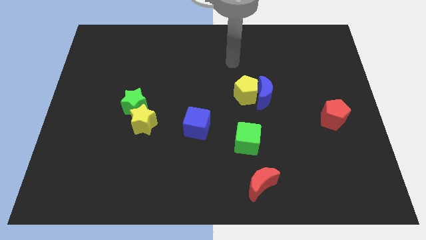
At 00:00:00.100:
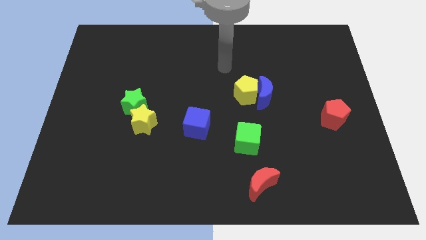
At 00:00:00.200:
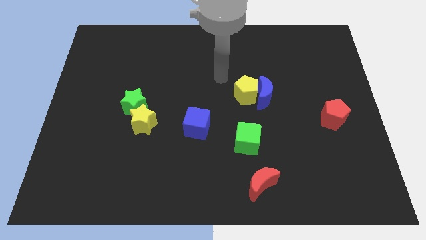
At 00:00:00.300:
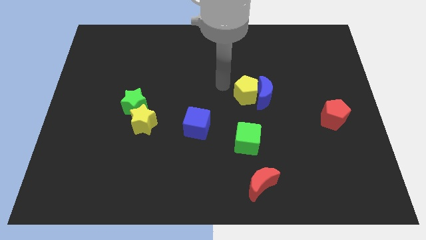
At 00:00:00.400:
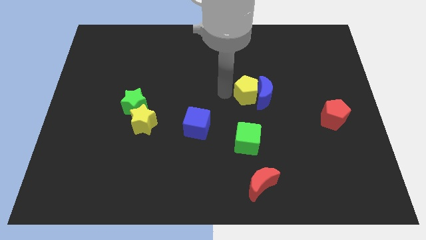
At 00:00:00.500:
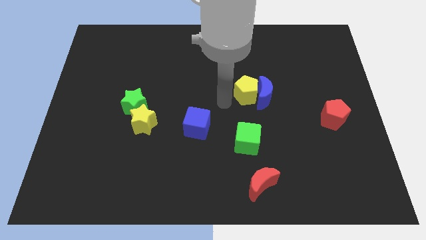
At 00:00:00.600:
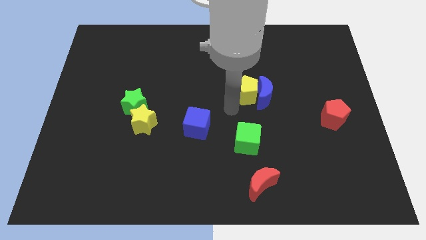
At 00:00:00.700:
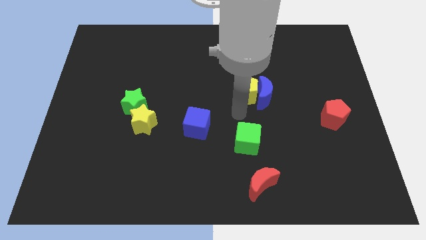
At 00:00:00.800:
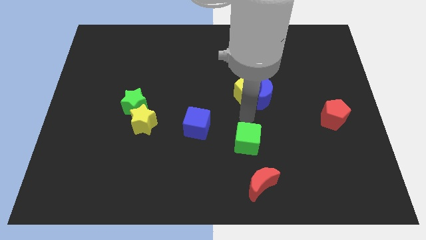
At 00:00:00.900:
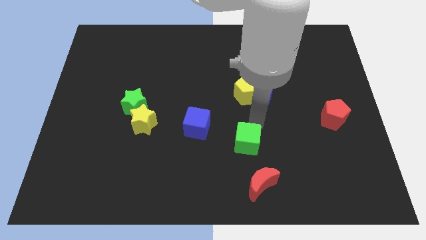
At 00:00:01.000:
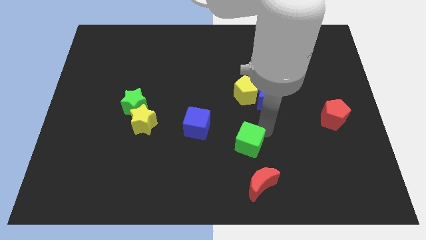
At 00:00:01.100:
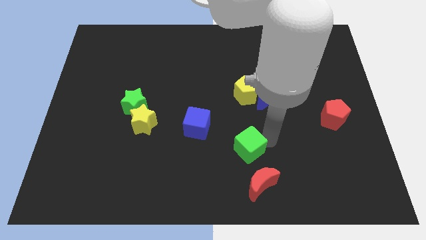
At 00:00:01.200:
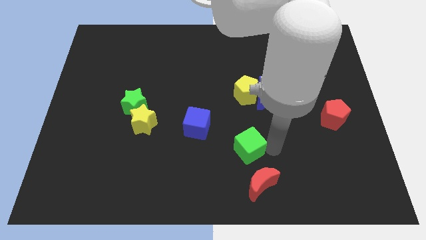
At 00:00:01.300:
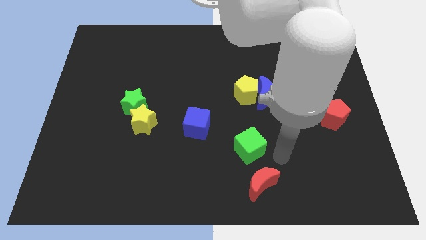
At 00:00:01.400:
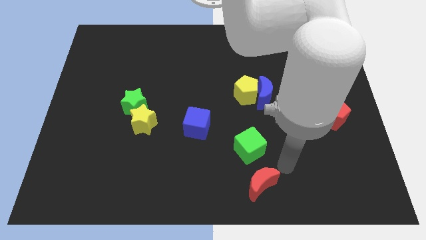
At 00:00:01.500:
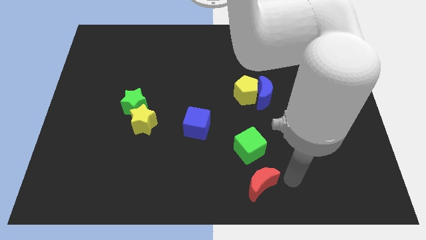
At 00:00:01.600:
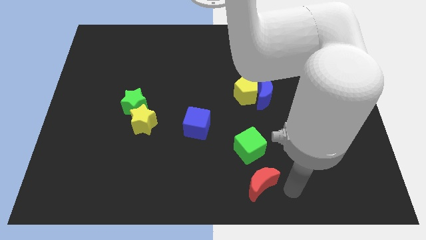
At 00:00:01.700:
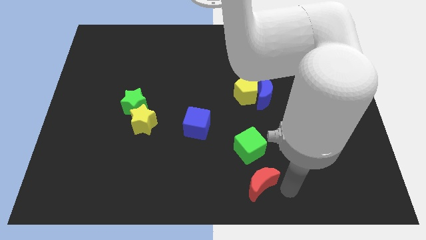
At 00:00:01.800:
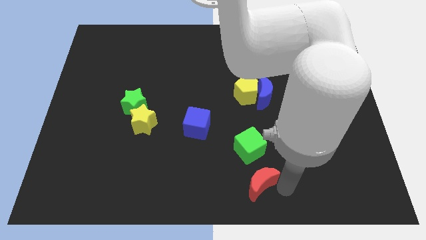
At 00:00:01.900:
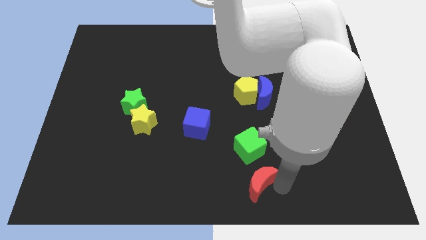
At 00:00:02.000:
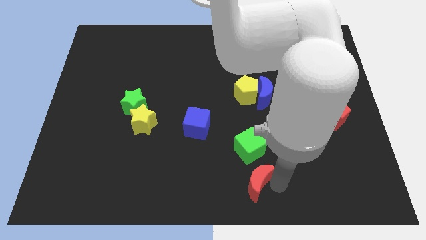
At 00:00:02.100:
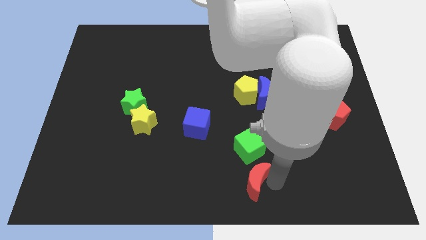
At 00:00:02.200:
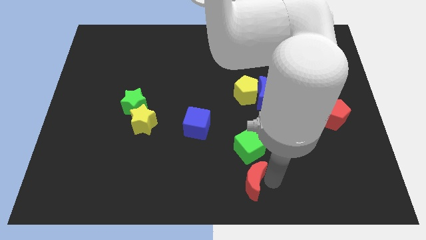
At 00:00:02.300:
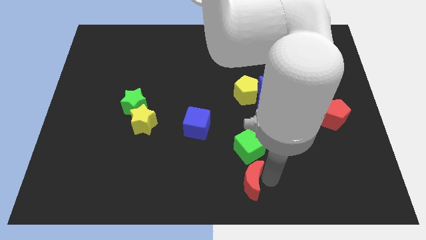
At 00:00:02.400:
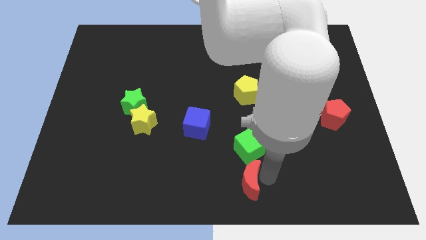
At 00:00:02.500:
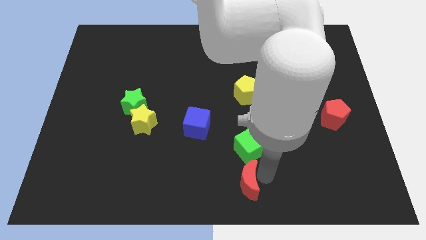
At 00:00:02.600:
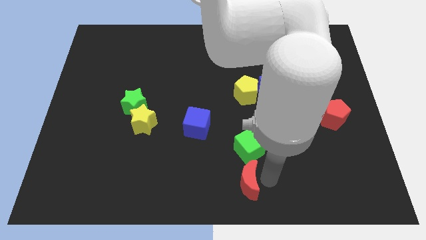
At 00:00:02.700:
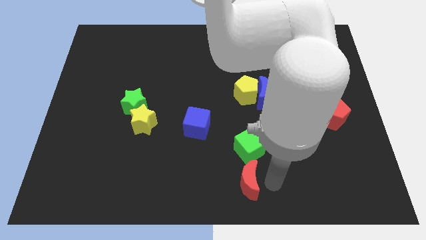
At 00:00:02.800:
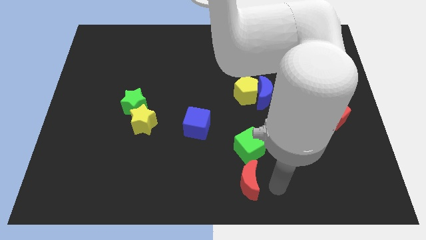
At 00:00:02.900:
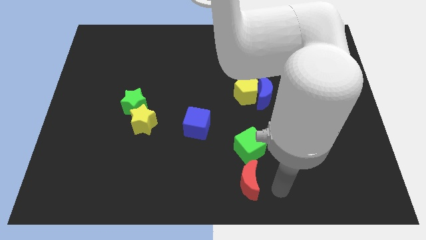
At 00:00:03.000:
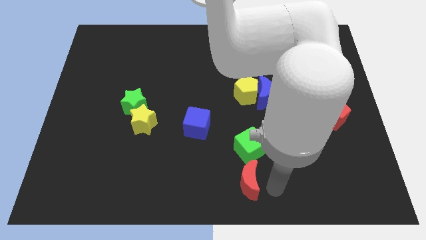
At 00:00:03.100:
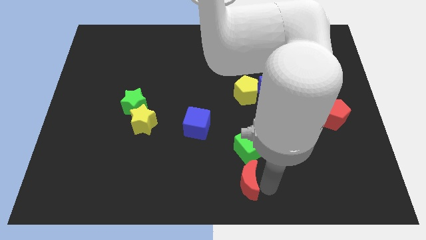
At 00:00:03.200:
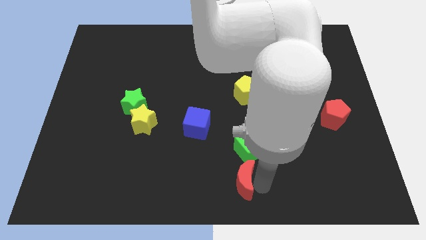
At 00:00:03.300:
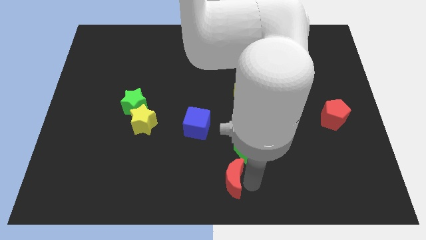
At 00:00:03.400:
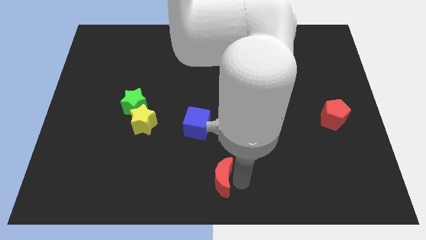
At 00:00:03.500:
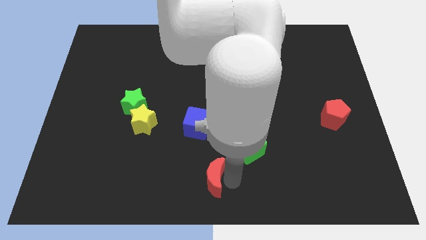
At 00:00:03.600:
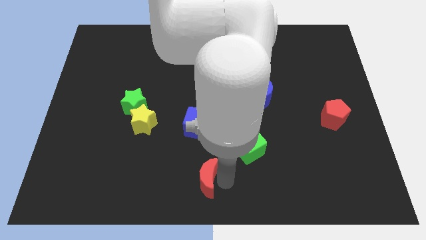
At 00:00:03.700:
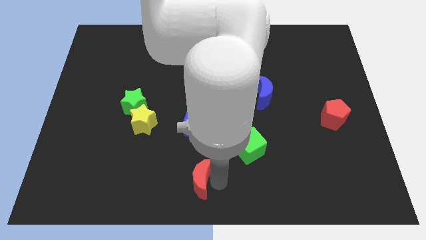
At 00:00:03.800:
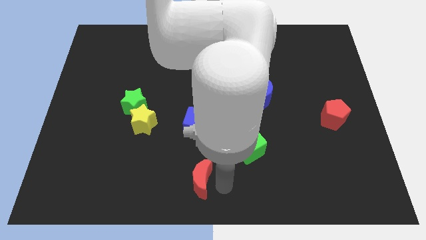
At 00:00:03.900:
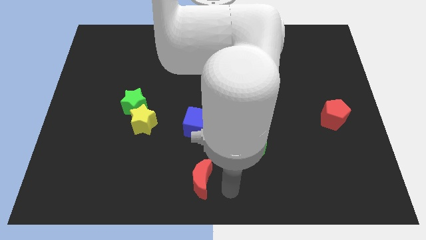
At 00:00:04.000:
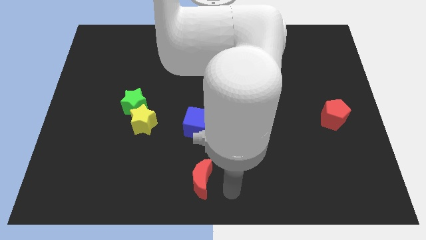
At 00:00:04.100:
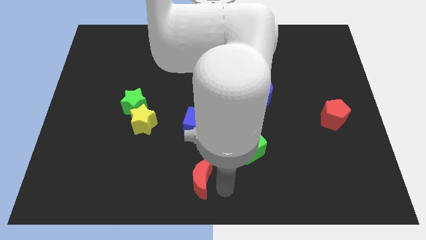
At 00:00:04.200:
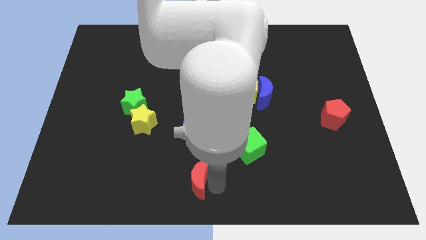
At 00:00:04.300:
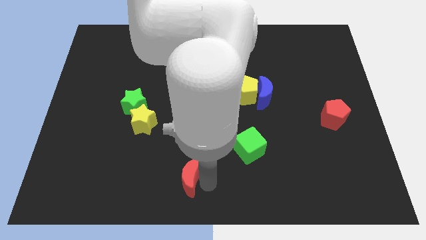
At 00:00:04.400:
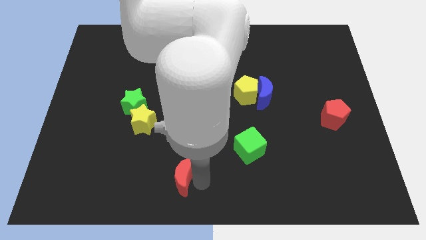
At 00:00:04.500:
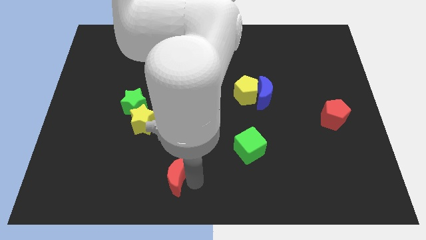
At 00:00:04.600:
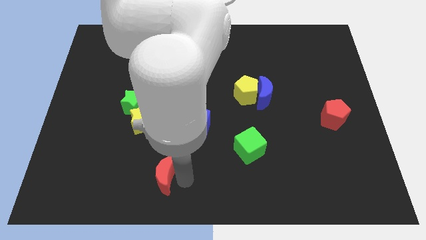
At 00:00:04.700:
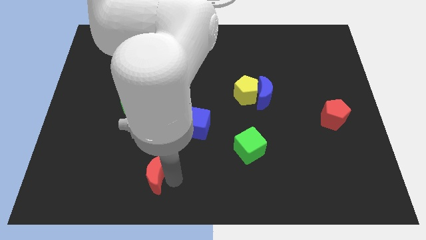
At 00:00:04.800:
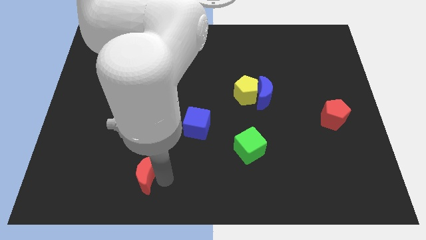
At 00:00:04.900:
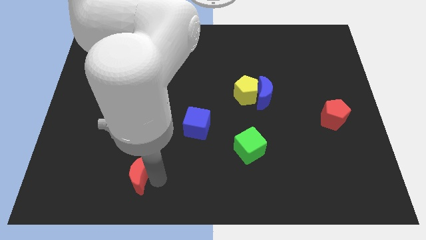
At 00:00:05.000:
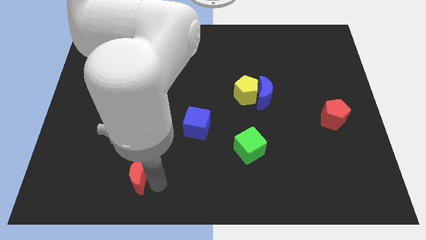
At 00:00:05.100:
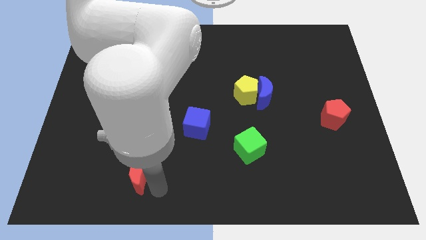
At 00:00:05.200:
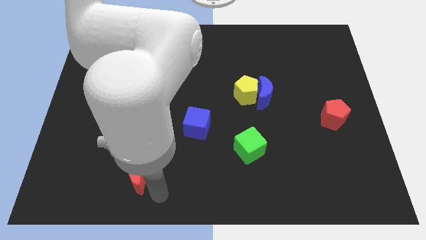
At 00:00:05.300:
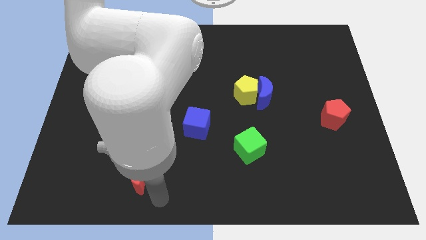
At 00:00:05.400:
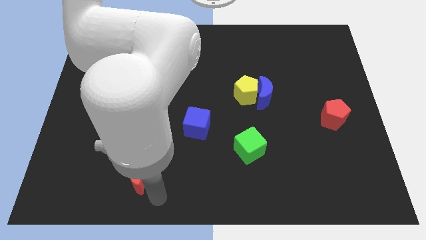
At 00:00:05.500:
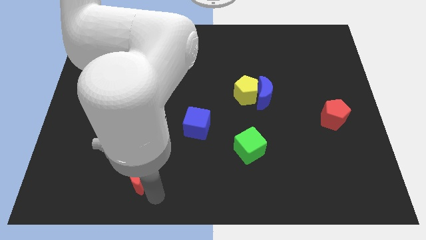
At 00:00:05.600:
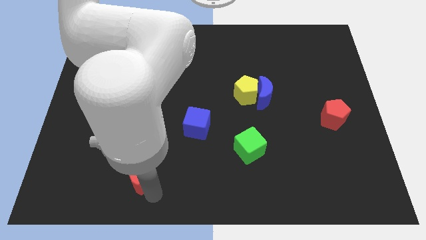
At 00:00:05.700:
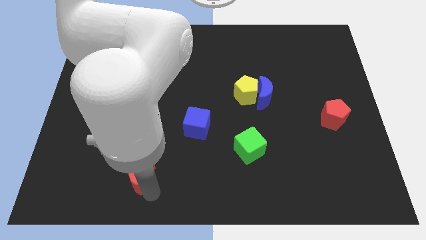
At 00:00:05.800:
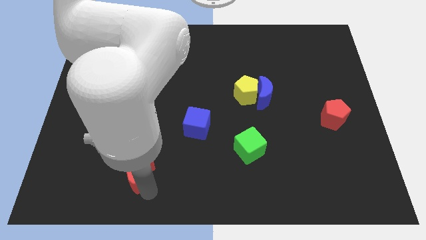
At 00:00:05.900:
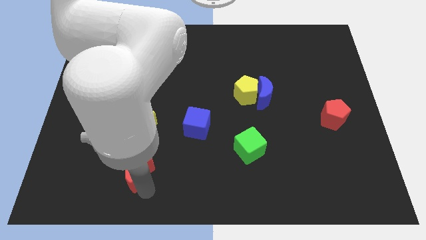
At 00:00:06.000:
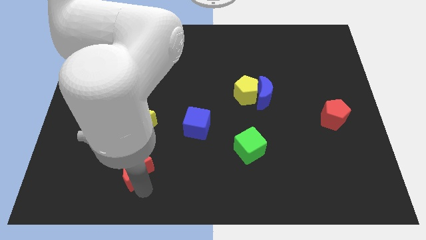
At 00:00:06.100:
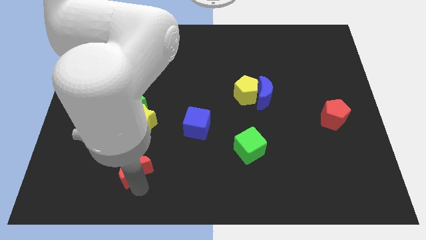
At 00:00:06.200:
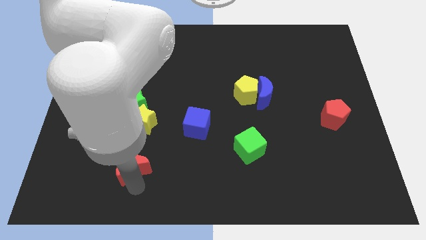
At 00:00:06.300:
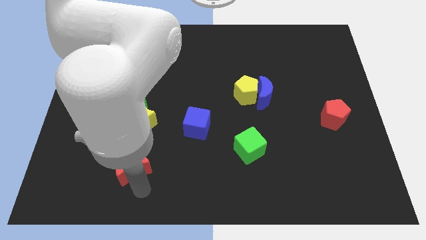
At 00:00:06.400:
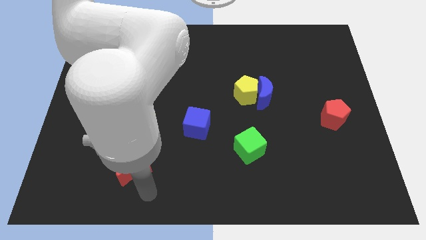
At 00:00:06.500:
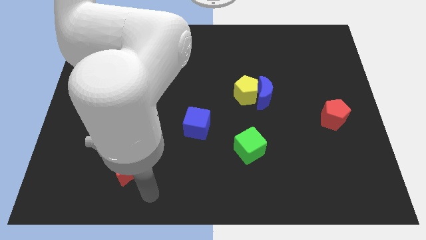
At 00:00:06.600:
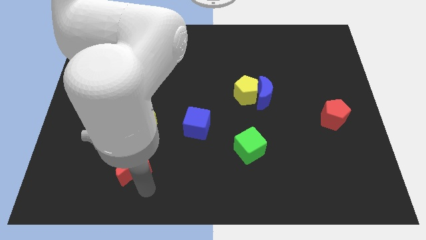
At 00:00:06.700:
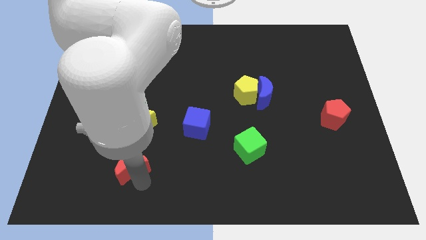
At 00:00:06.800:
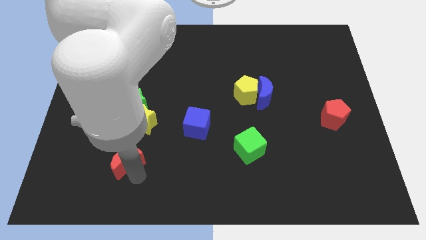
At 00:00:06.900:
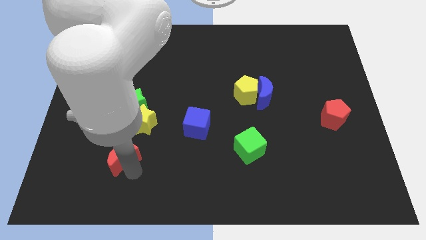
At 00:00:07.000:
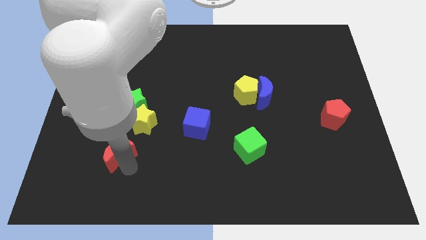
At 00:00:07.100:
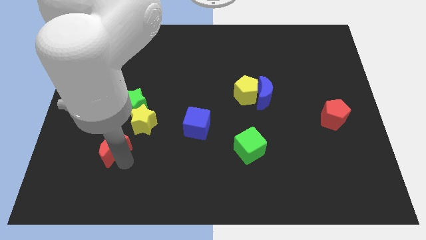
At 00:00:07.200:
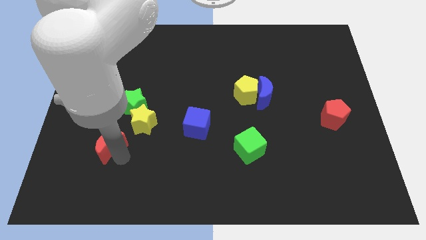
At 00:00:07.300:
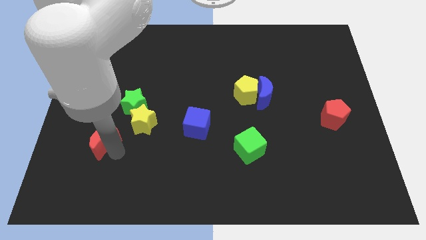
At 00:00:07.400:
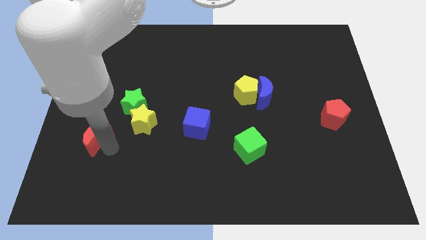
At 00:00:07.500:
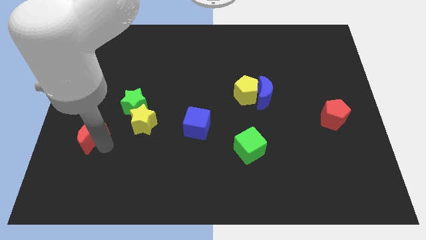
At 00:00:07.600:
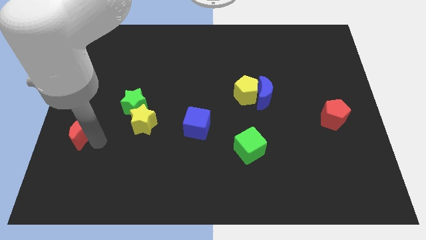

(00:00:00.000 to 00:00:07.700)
slide the red moon to the left side
